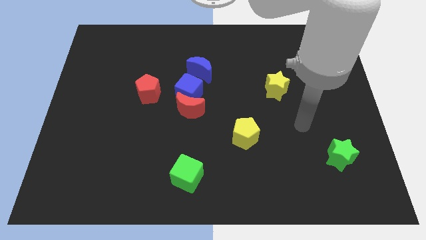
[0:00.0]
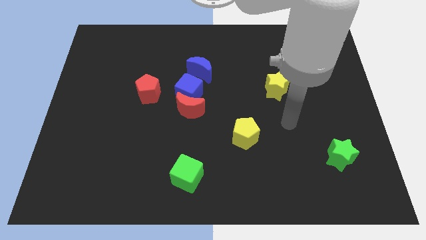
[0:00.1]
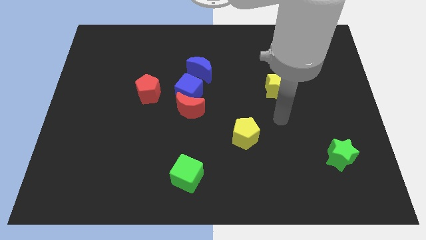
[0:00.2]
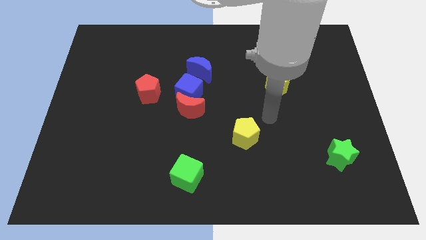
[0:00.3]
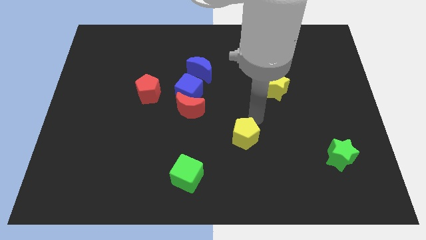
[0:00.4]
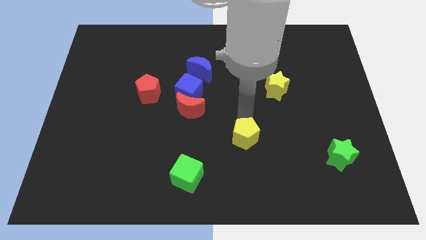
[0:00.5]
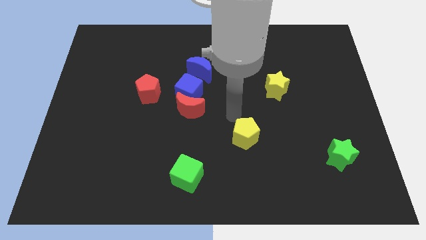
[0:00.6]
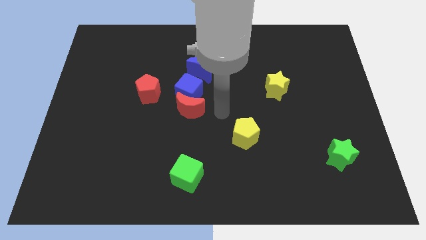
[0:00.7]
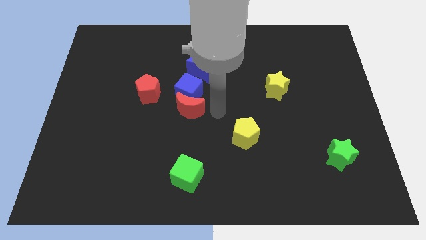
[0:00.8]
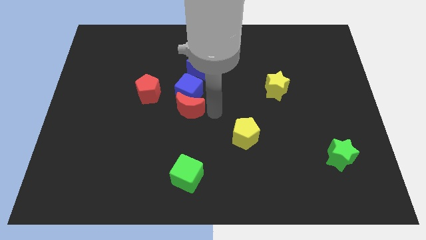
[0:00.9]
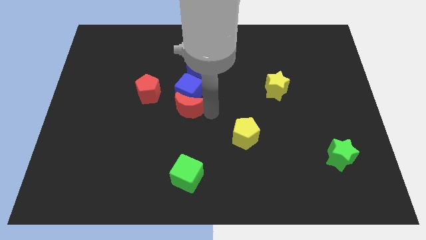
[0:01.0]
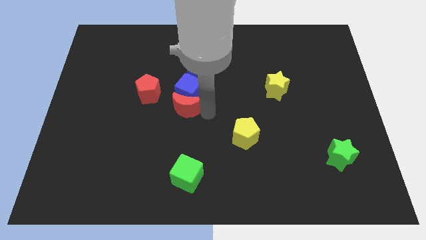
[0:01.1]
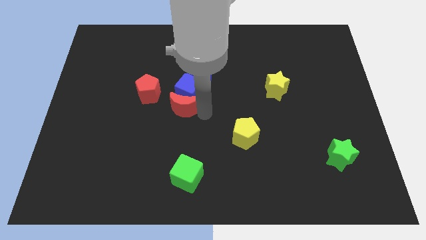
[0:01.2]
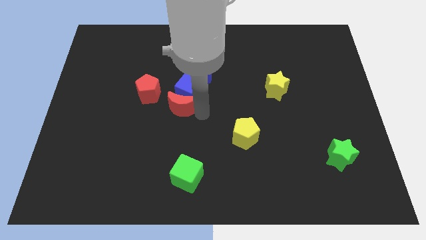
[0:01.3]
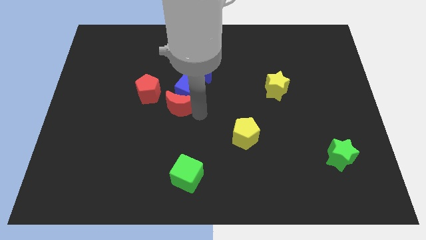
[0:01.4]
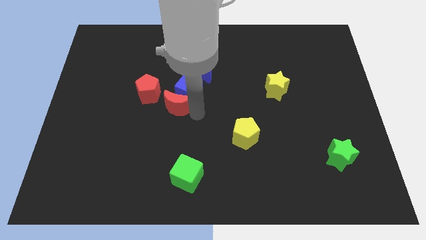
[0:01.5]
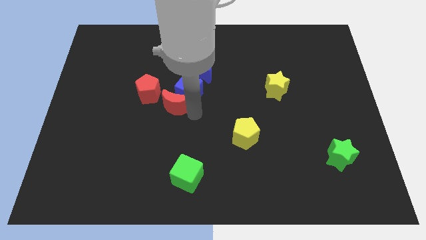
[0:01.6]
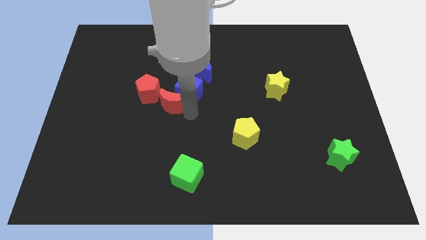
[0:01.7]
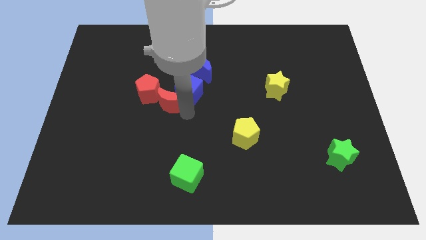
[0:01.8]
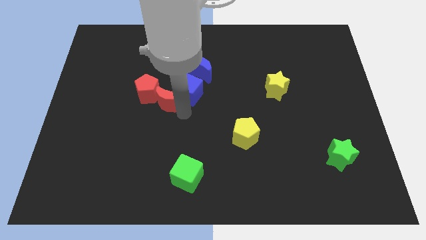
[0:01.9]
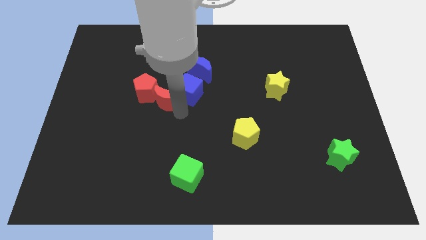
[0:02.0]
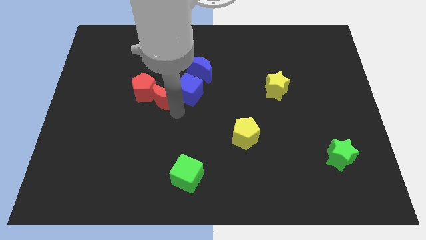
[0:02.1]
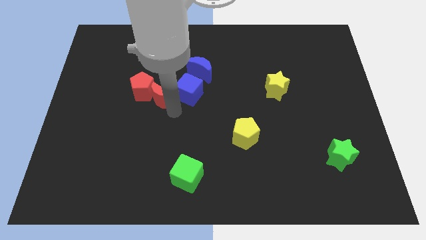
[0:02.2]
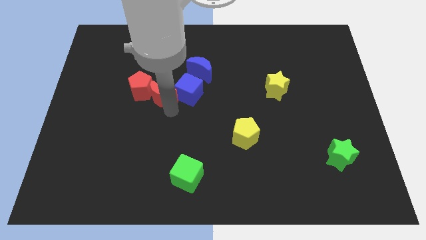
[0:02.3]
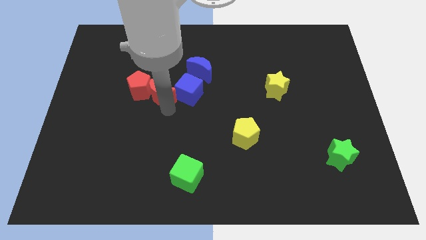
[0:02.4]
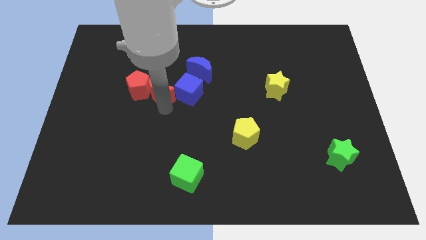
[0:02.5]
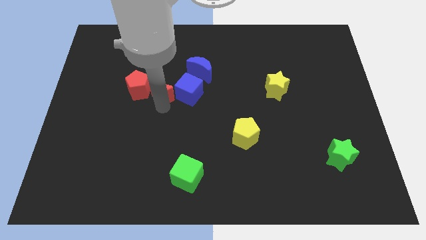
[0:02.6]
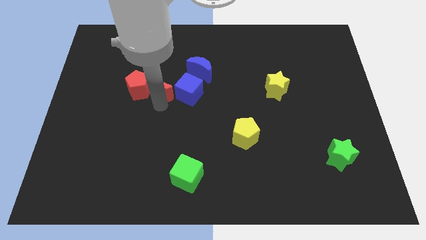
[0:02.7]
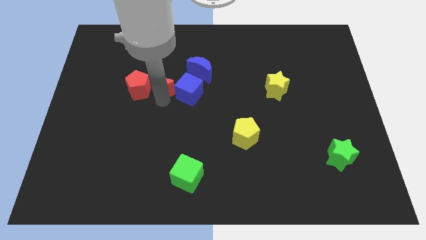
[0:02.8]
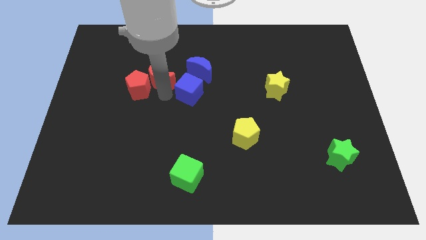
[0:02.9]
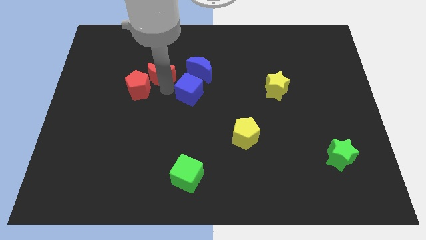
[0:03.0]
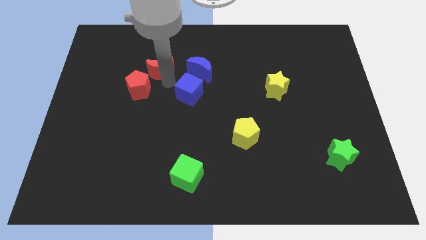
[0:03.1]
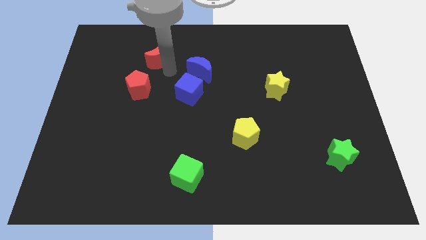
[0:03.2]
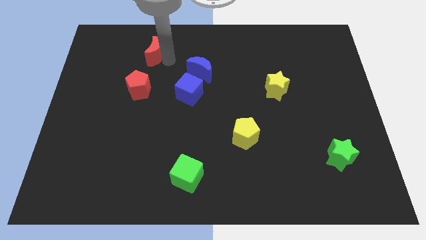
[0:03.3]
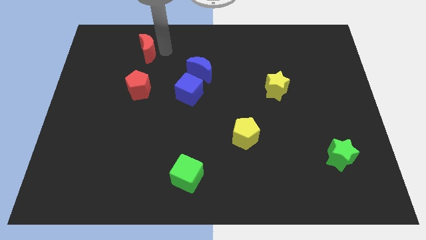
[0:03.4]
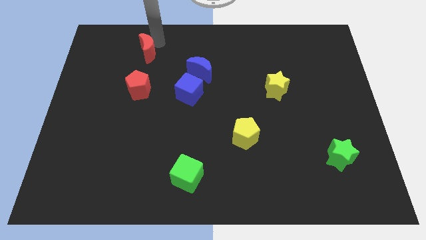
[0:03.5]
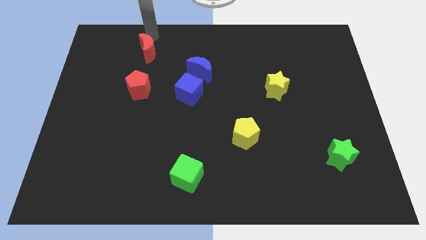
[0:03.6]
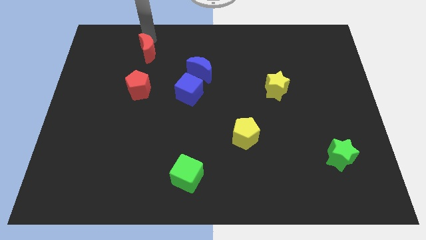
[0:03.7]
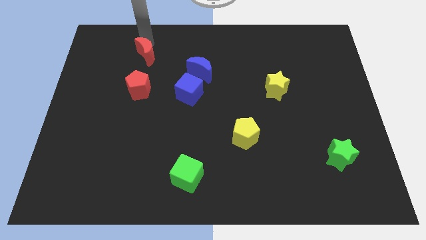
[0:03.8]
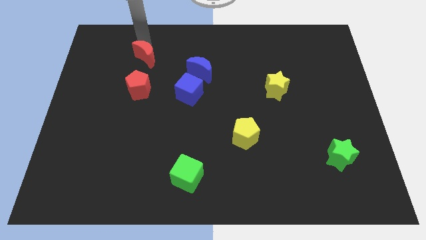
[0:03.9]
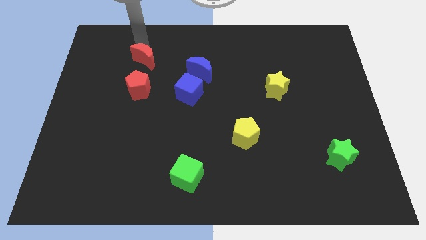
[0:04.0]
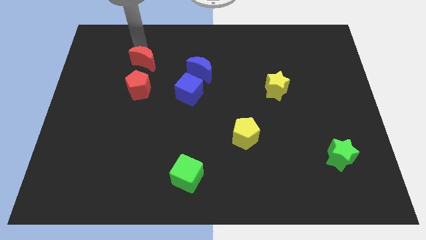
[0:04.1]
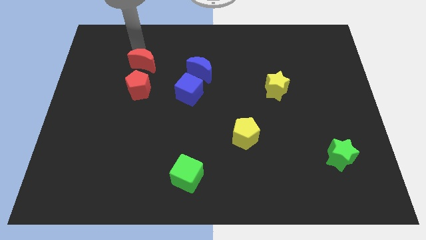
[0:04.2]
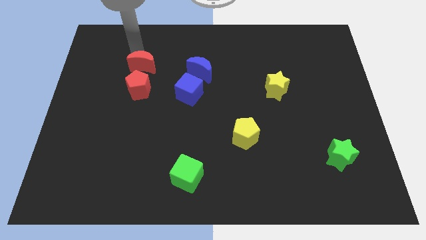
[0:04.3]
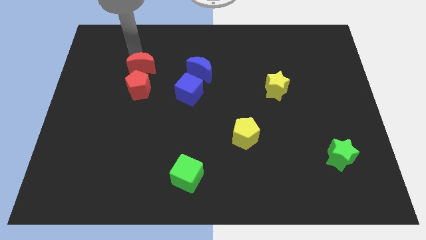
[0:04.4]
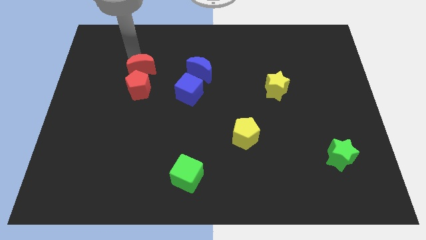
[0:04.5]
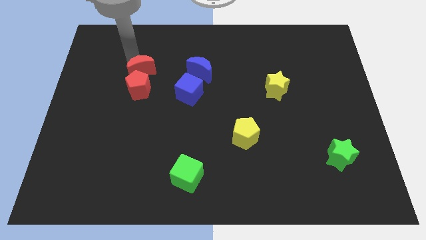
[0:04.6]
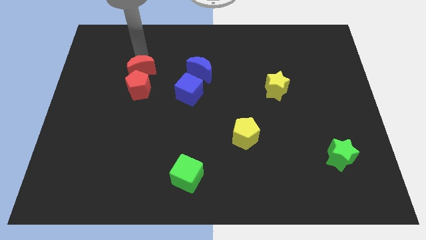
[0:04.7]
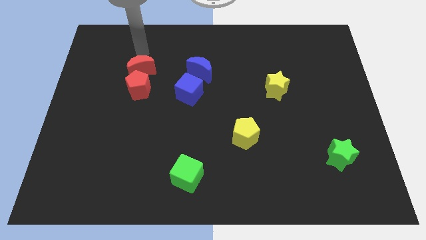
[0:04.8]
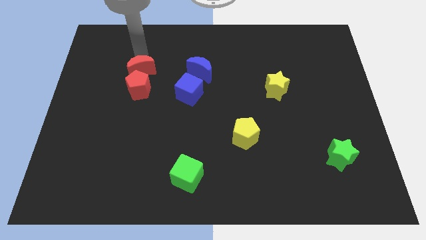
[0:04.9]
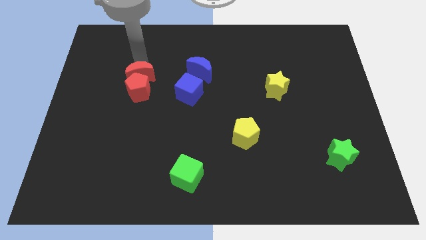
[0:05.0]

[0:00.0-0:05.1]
slightly slide the red moon to the left

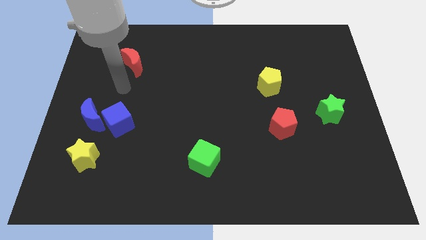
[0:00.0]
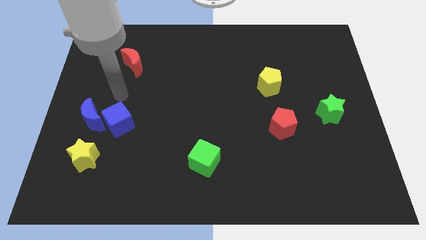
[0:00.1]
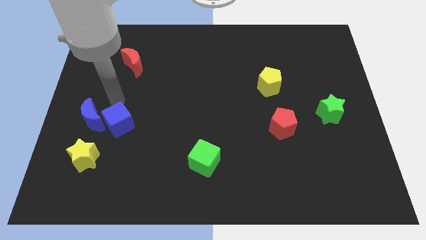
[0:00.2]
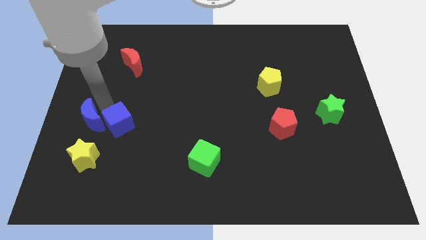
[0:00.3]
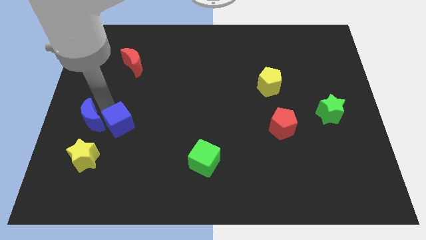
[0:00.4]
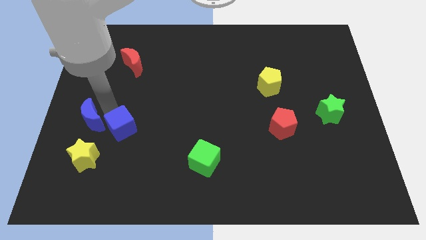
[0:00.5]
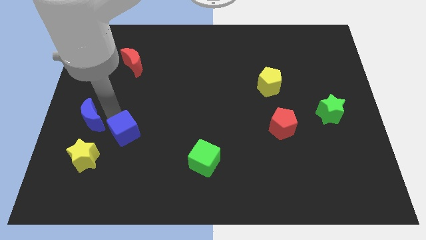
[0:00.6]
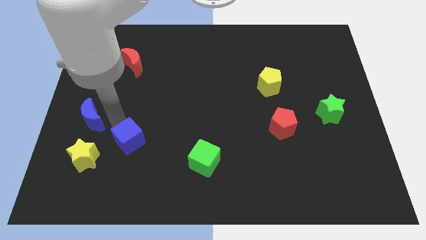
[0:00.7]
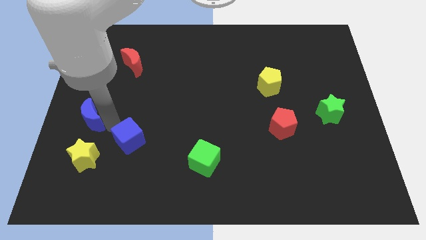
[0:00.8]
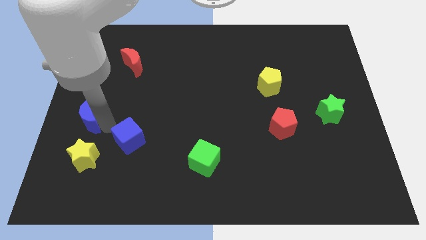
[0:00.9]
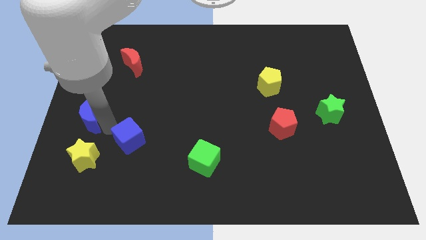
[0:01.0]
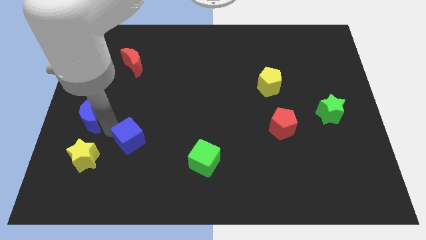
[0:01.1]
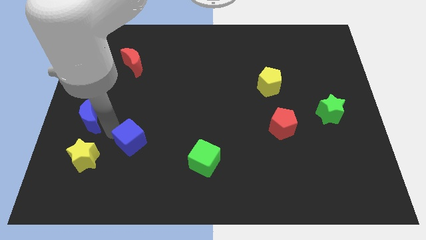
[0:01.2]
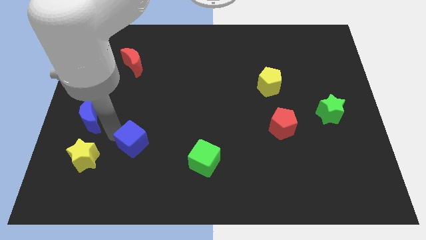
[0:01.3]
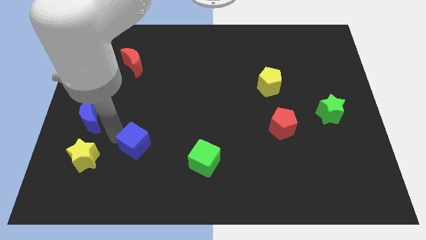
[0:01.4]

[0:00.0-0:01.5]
push the blue cube down and right somewhat

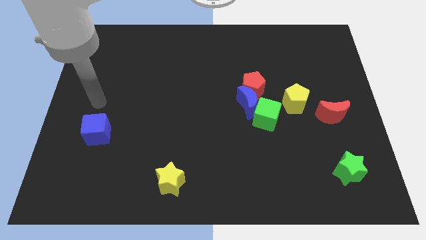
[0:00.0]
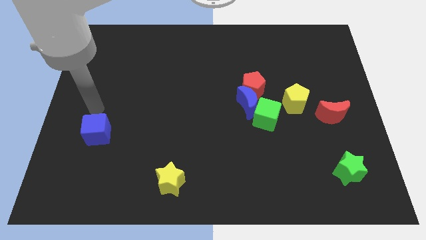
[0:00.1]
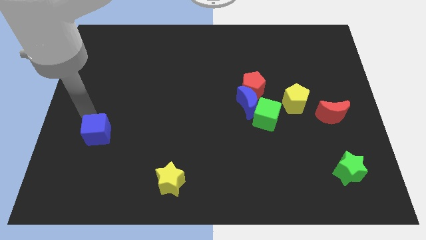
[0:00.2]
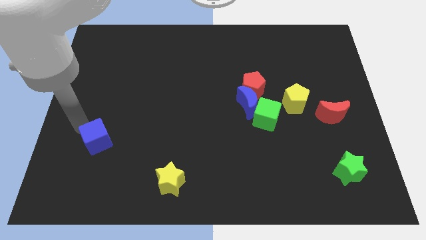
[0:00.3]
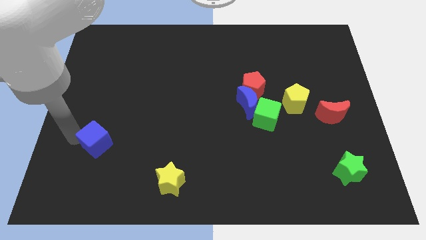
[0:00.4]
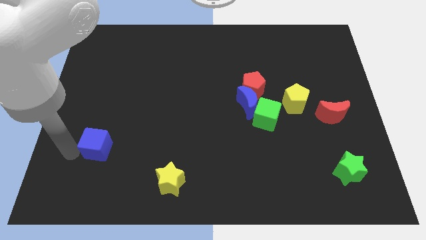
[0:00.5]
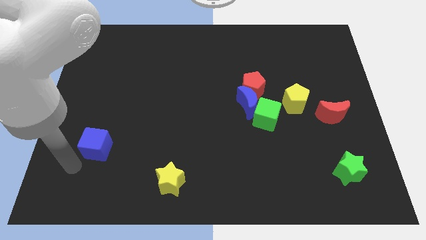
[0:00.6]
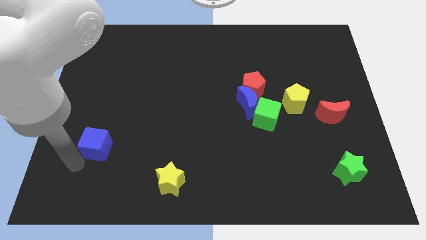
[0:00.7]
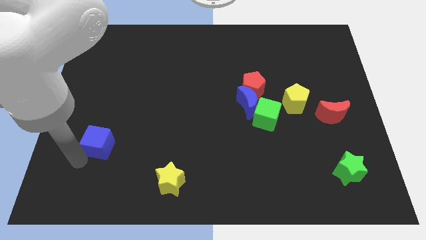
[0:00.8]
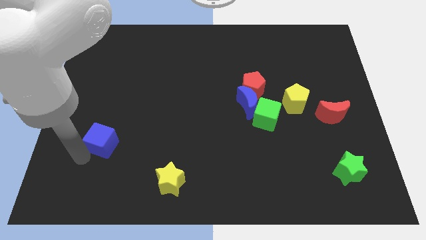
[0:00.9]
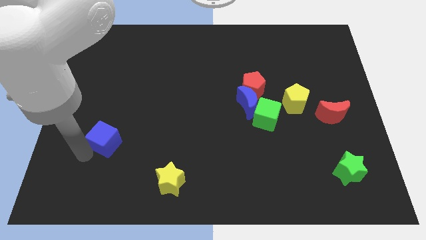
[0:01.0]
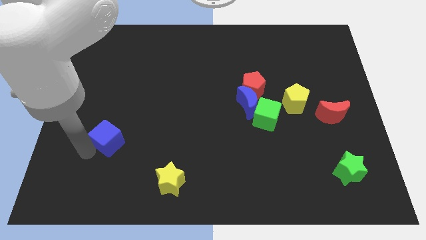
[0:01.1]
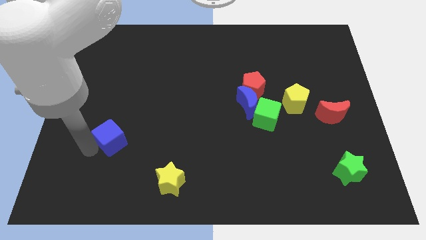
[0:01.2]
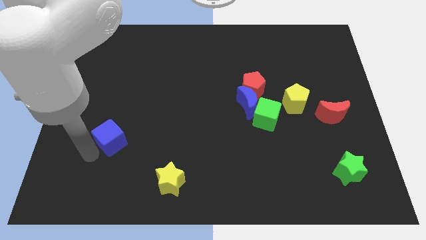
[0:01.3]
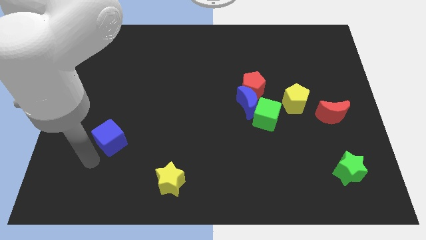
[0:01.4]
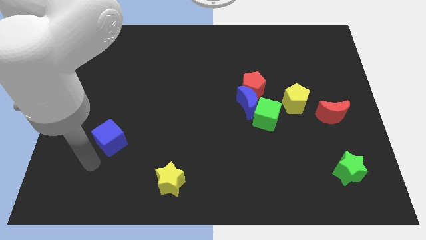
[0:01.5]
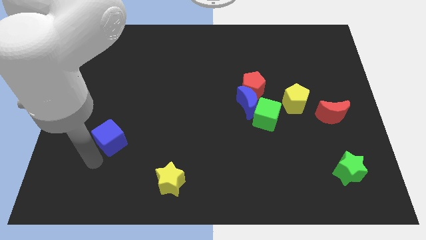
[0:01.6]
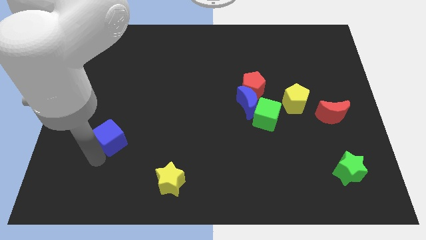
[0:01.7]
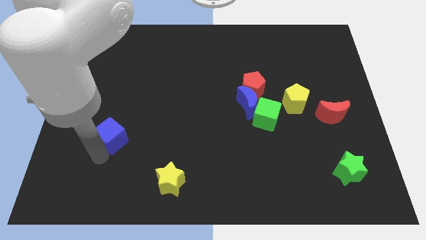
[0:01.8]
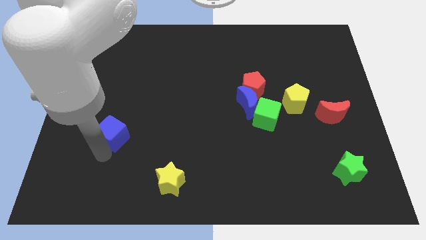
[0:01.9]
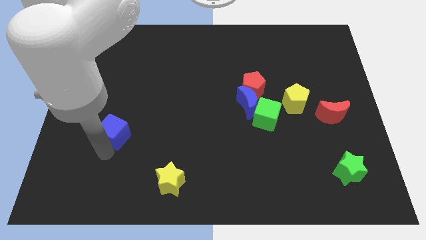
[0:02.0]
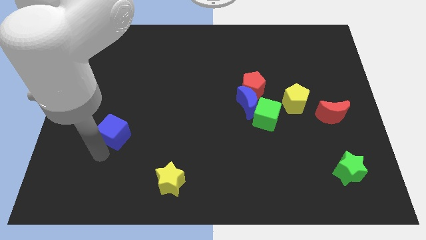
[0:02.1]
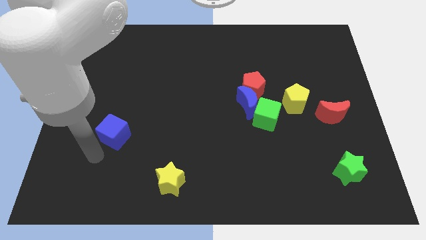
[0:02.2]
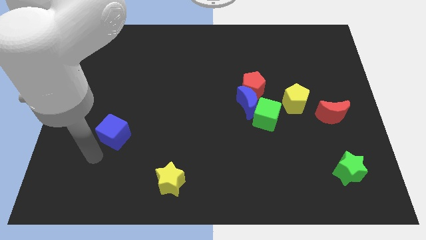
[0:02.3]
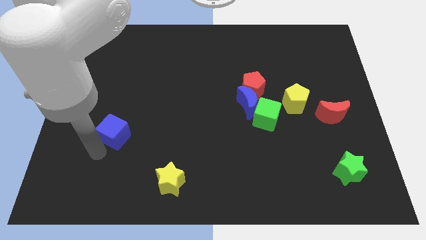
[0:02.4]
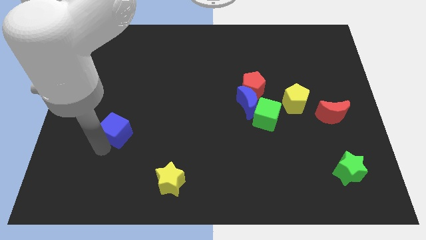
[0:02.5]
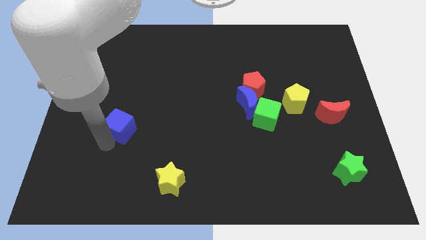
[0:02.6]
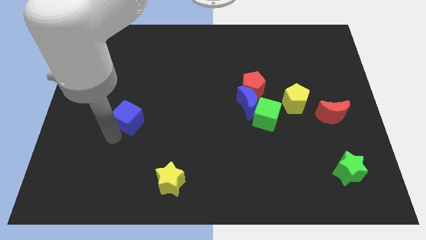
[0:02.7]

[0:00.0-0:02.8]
move the blue cube diagonally upwards and to the right a little bit
